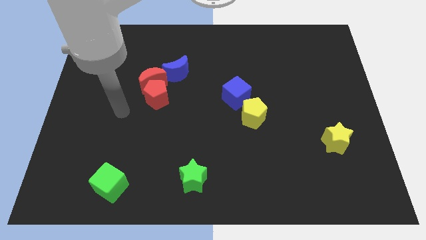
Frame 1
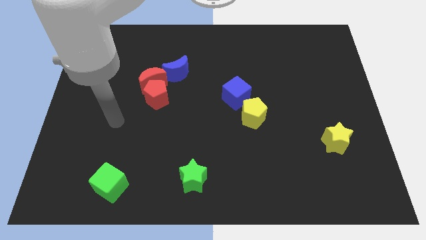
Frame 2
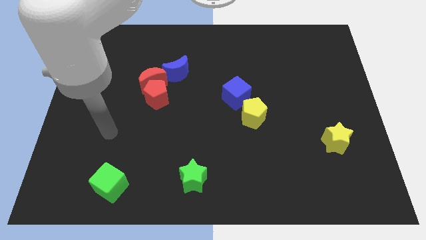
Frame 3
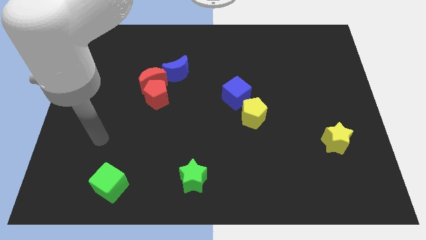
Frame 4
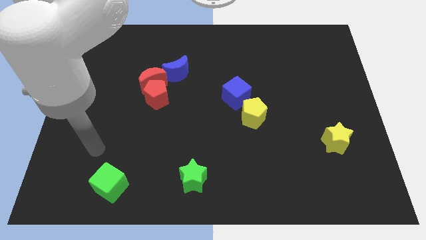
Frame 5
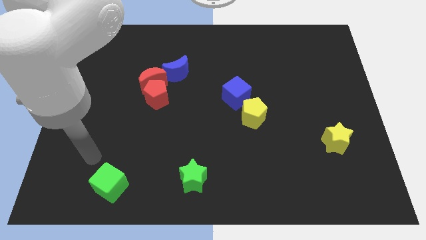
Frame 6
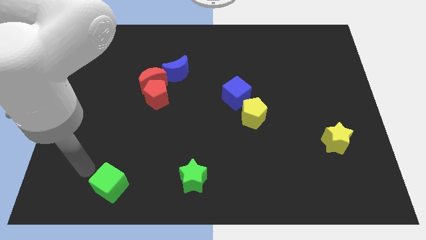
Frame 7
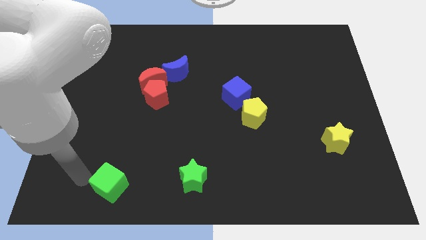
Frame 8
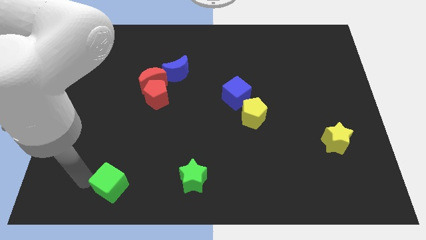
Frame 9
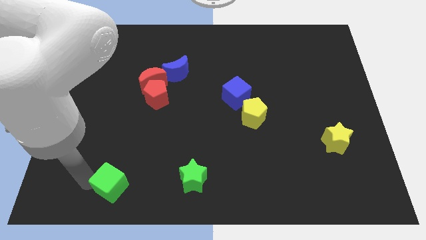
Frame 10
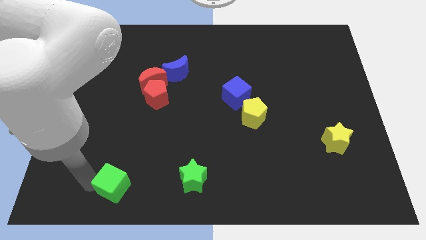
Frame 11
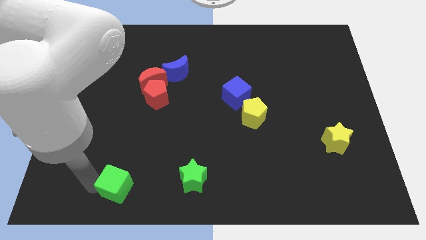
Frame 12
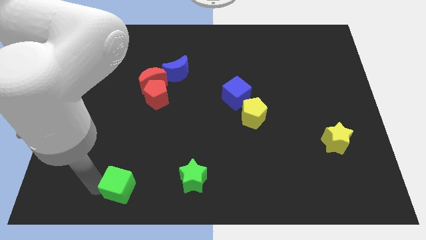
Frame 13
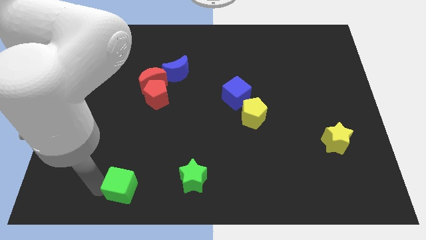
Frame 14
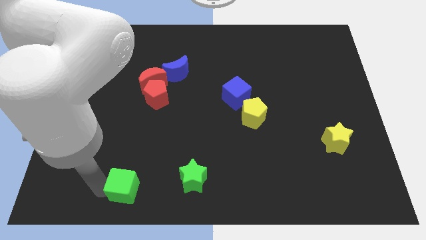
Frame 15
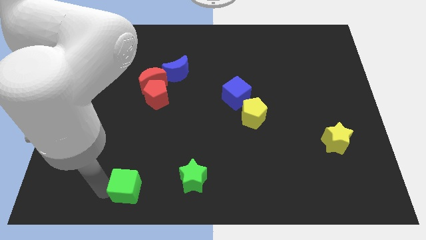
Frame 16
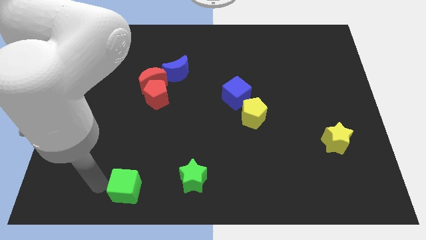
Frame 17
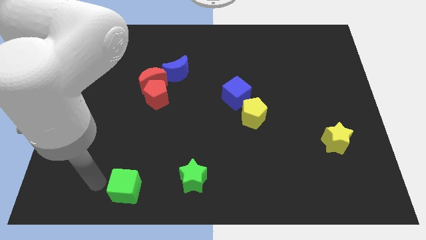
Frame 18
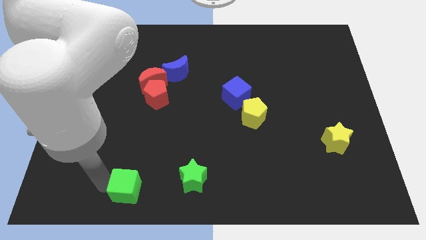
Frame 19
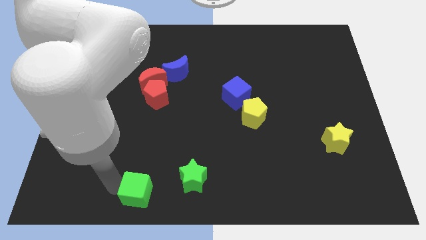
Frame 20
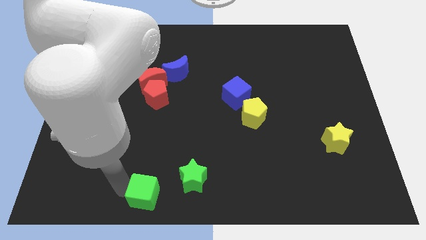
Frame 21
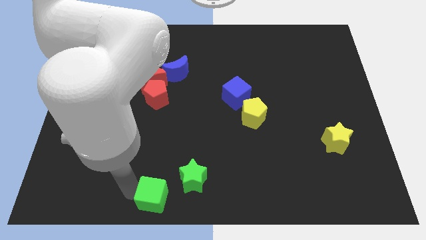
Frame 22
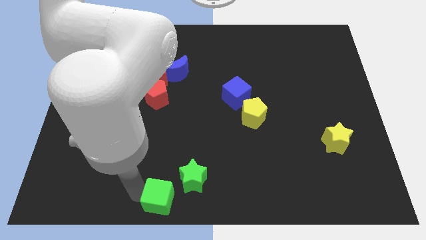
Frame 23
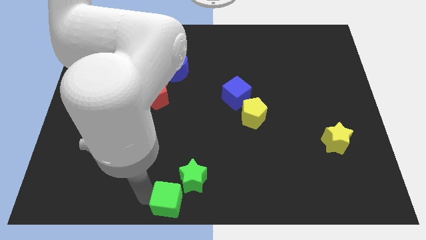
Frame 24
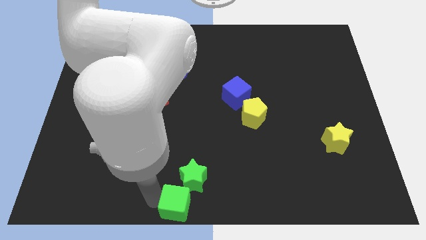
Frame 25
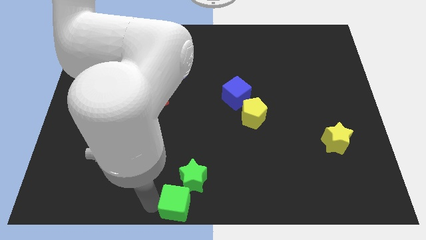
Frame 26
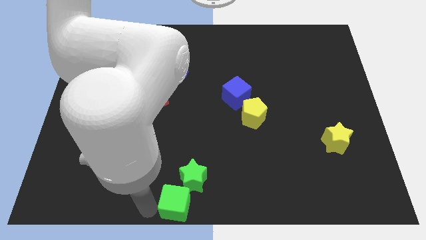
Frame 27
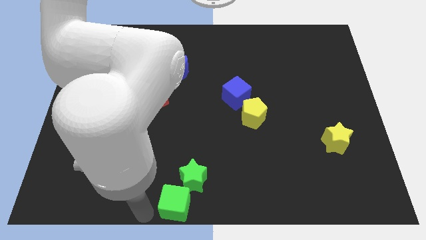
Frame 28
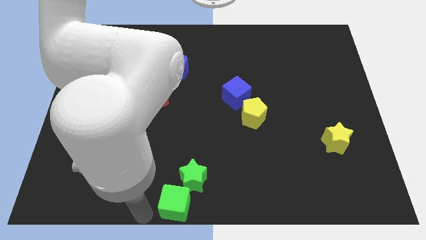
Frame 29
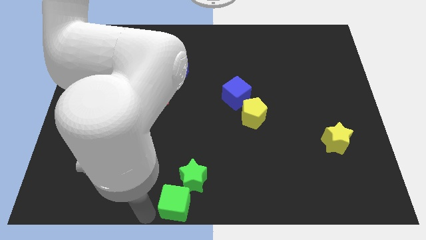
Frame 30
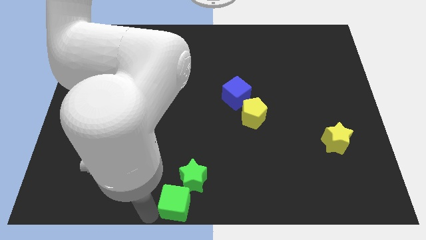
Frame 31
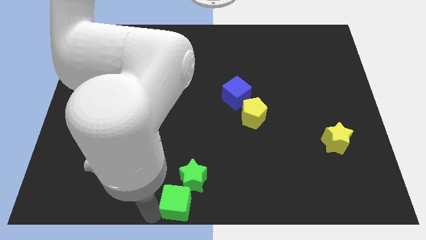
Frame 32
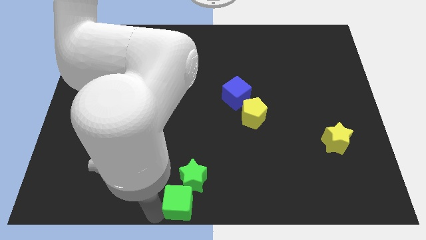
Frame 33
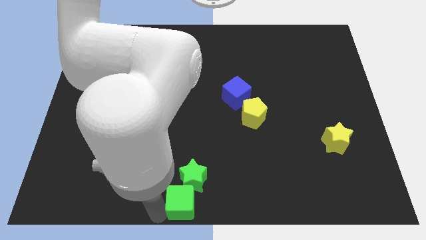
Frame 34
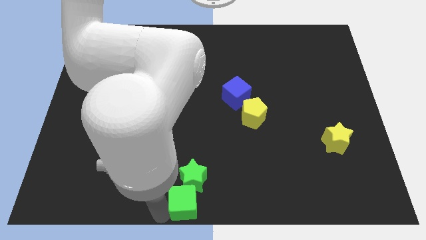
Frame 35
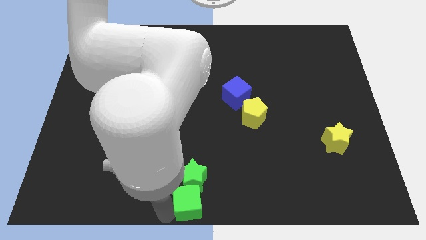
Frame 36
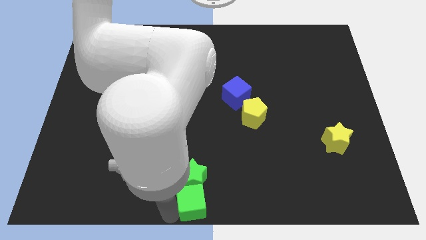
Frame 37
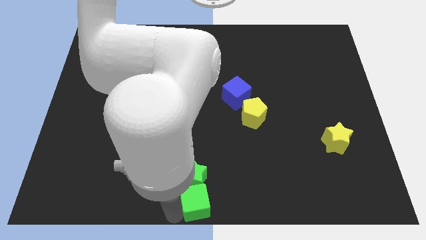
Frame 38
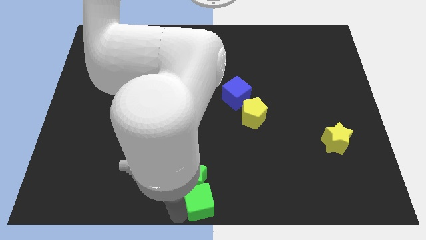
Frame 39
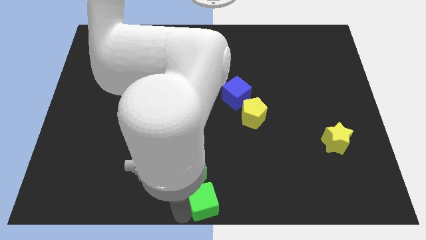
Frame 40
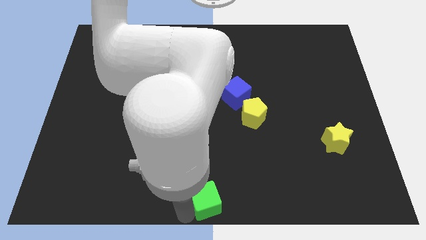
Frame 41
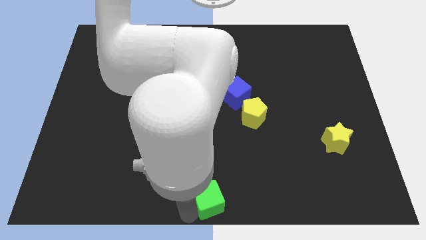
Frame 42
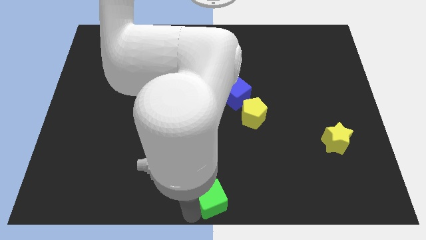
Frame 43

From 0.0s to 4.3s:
push the green cube to the right

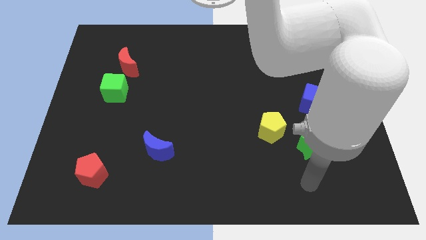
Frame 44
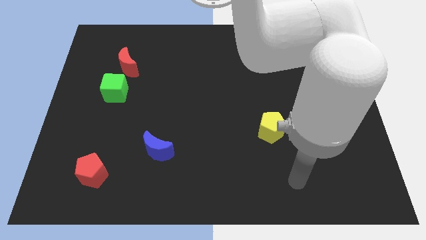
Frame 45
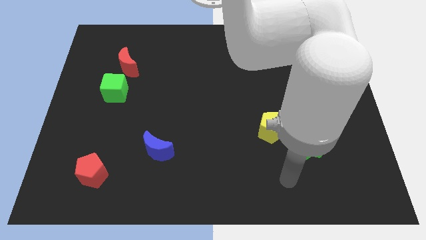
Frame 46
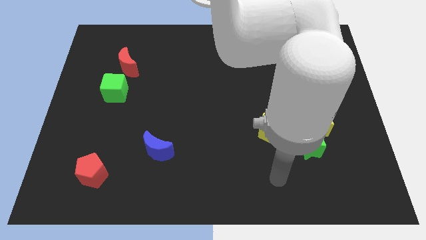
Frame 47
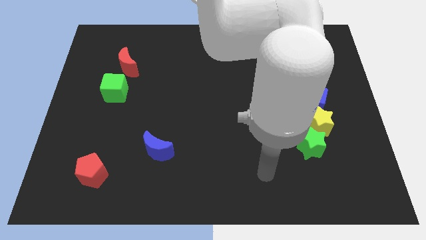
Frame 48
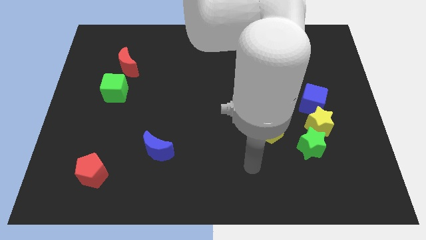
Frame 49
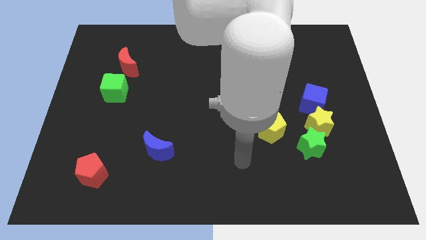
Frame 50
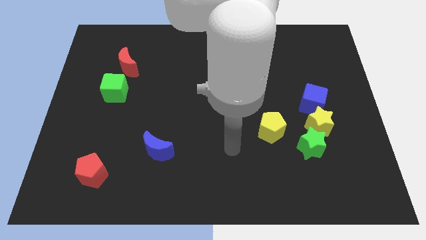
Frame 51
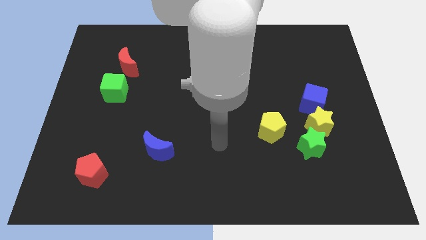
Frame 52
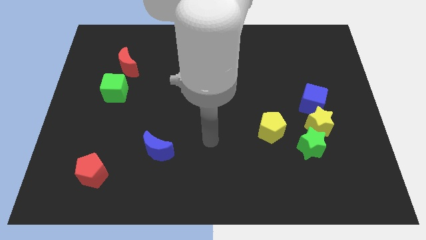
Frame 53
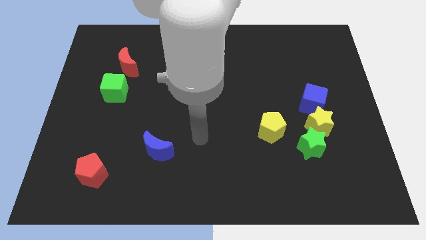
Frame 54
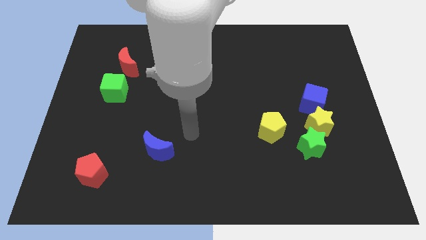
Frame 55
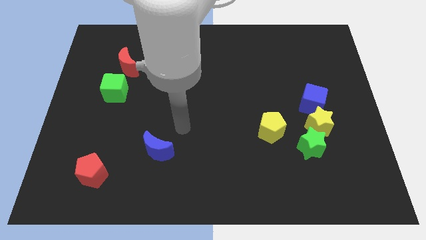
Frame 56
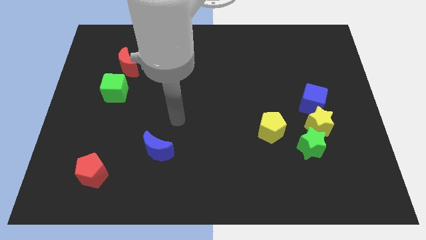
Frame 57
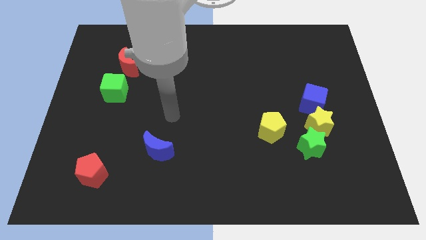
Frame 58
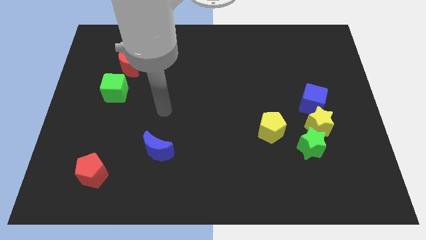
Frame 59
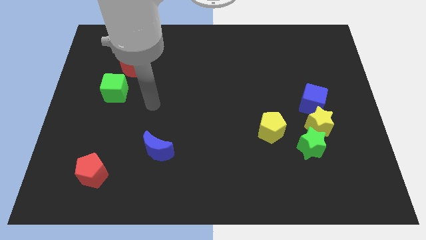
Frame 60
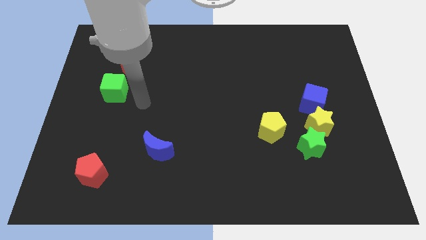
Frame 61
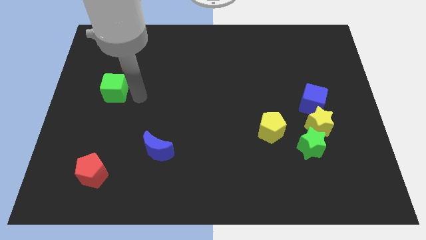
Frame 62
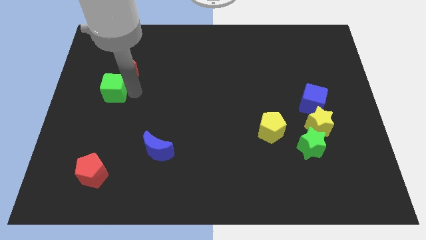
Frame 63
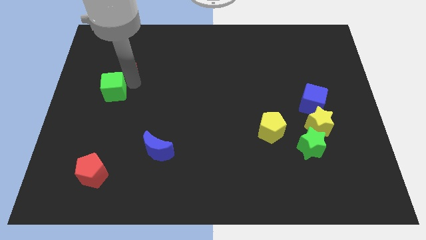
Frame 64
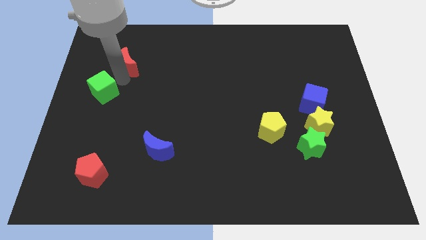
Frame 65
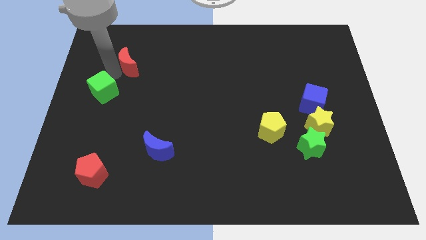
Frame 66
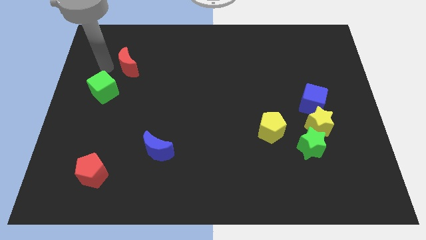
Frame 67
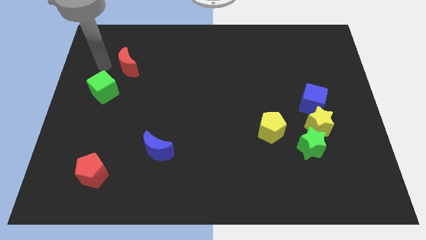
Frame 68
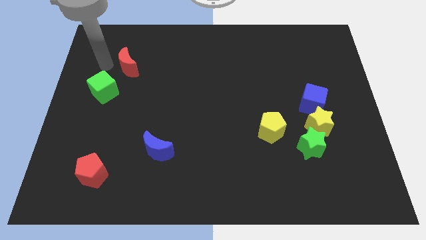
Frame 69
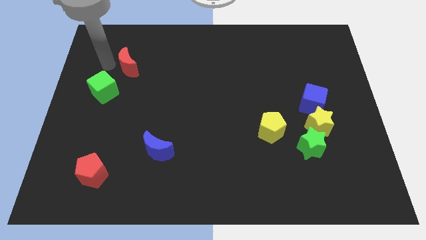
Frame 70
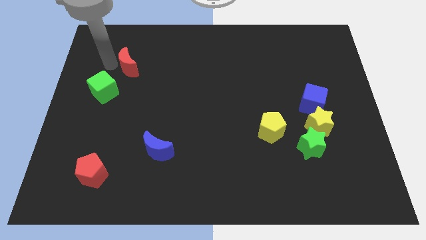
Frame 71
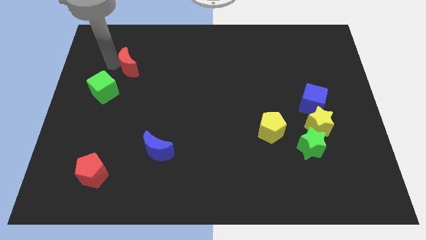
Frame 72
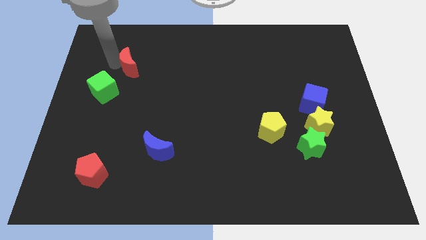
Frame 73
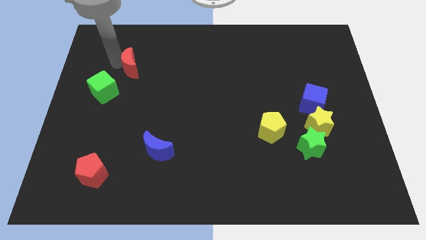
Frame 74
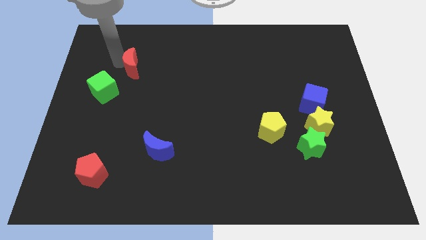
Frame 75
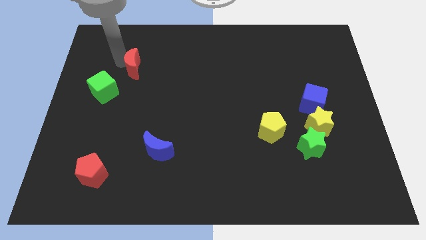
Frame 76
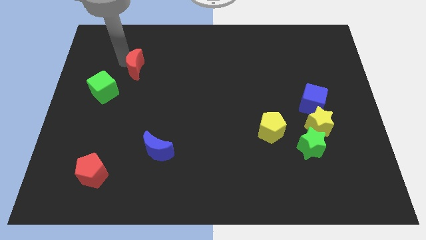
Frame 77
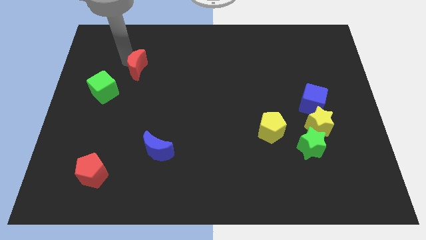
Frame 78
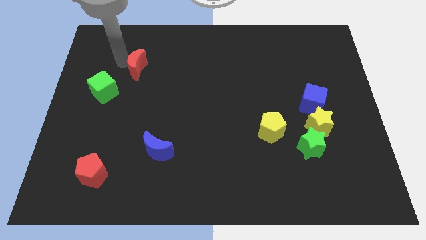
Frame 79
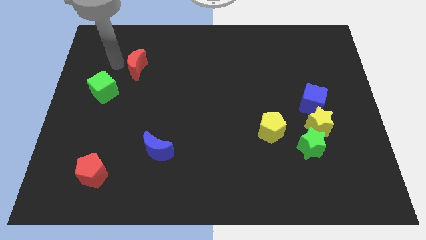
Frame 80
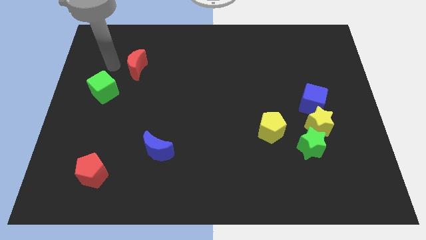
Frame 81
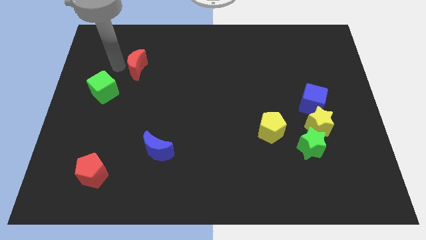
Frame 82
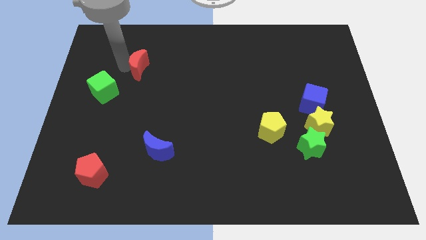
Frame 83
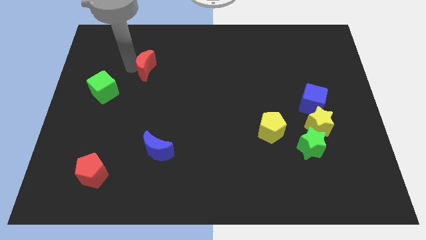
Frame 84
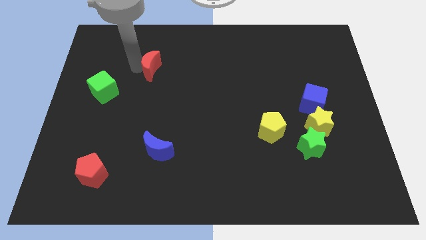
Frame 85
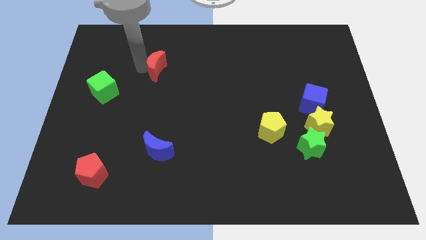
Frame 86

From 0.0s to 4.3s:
slide the red moon a little bit to the right
